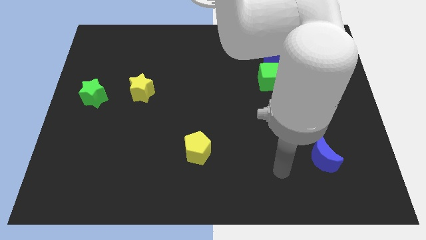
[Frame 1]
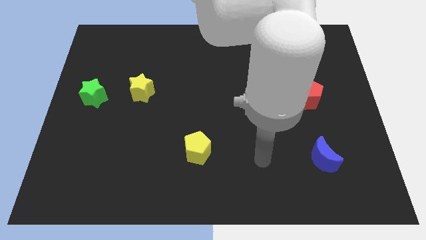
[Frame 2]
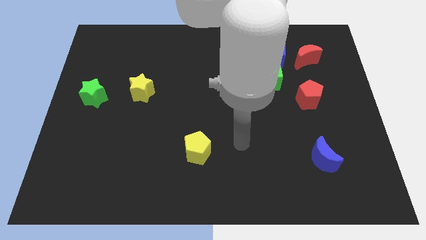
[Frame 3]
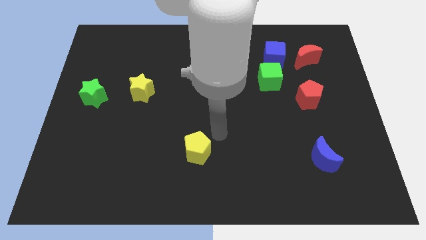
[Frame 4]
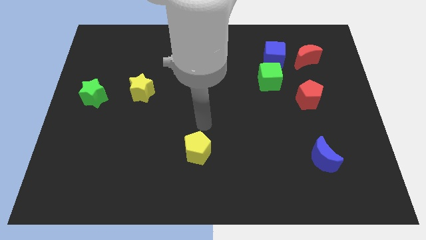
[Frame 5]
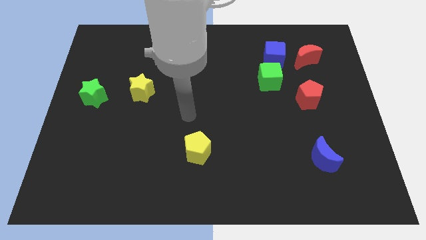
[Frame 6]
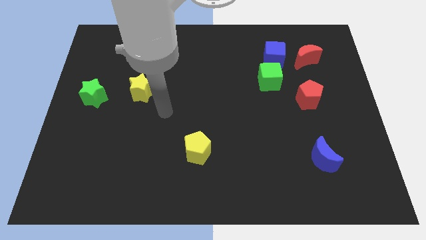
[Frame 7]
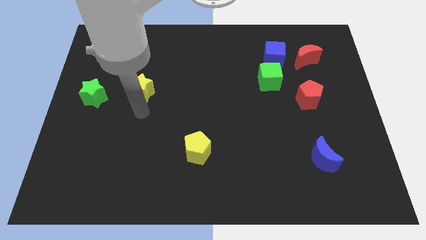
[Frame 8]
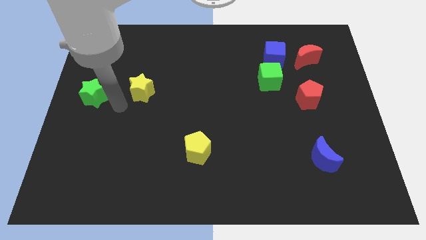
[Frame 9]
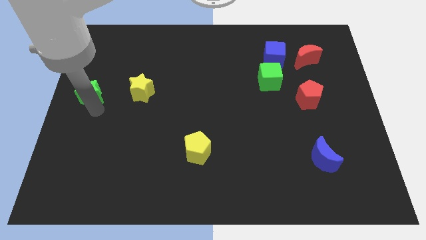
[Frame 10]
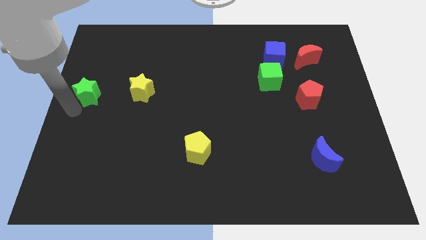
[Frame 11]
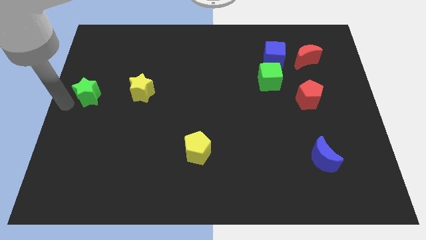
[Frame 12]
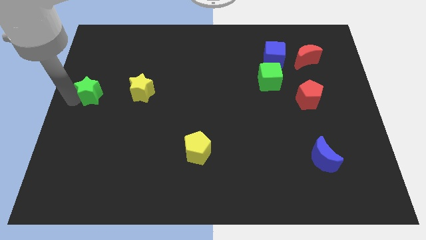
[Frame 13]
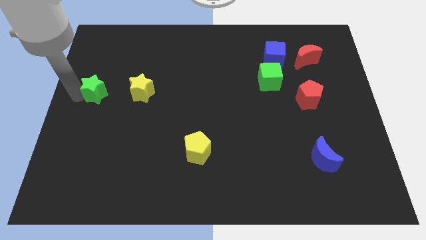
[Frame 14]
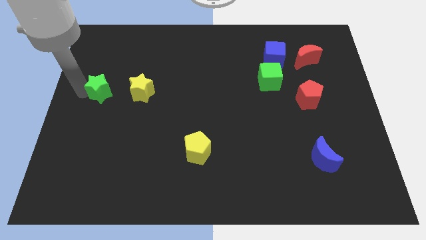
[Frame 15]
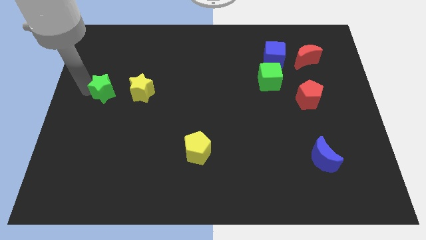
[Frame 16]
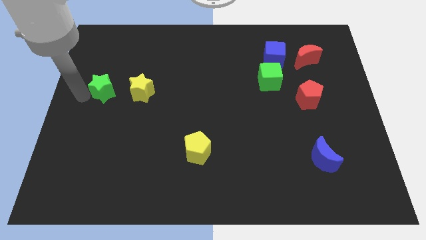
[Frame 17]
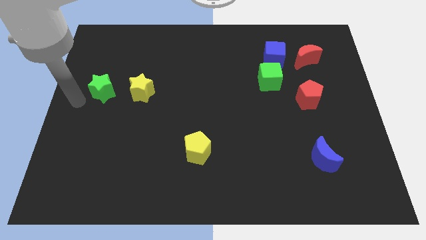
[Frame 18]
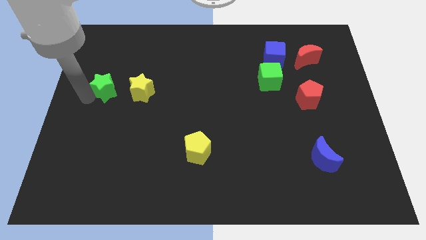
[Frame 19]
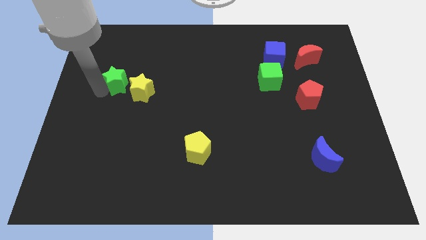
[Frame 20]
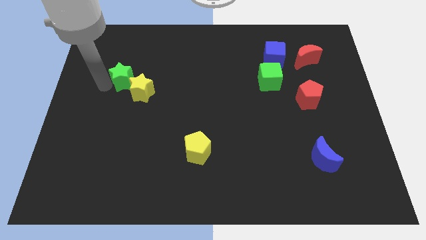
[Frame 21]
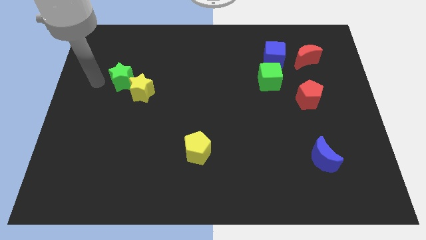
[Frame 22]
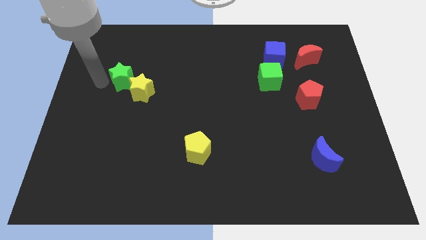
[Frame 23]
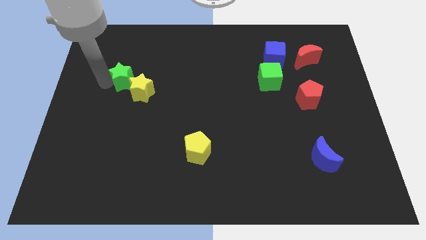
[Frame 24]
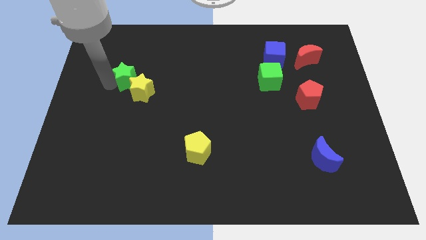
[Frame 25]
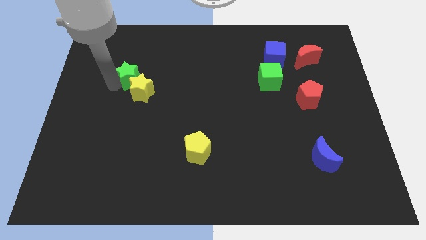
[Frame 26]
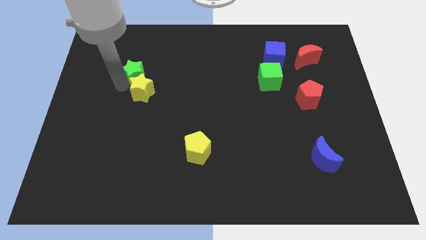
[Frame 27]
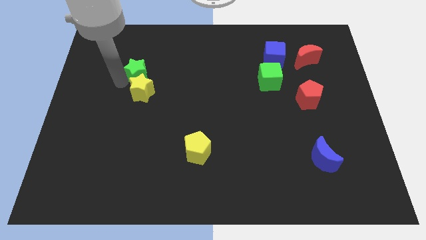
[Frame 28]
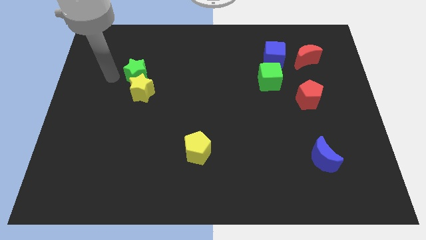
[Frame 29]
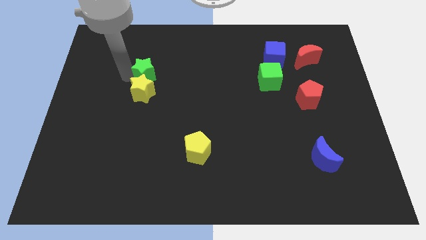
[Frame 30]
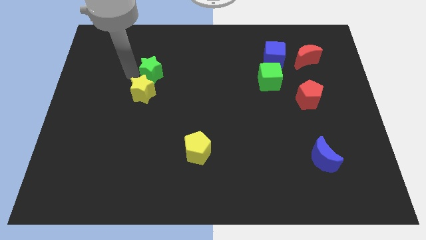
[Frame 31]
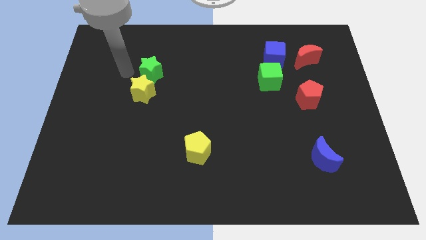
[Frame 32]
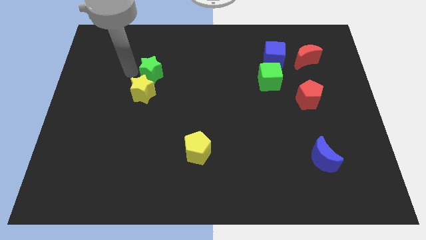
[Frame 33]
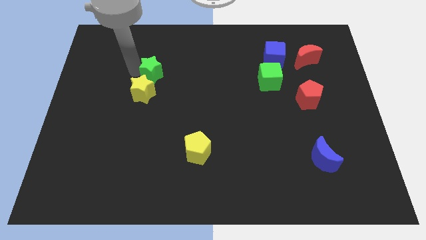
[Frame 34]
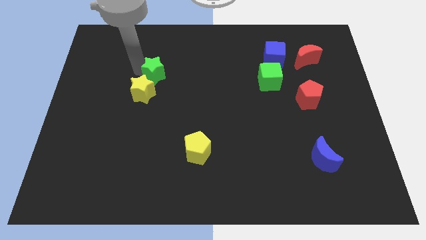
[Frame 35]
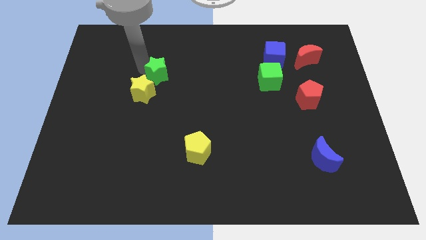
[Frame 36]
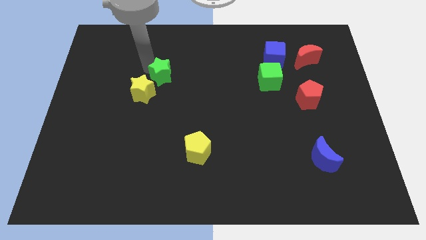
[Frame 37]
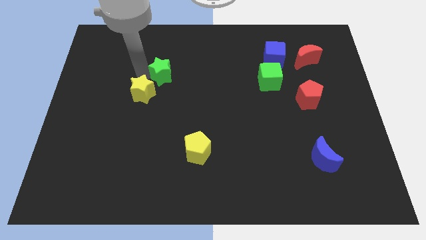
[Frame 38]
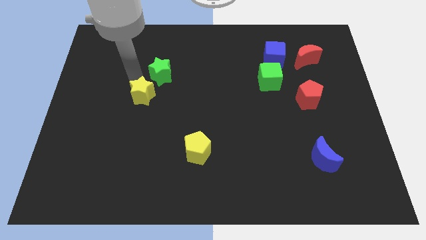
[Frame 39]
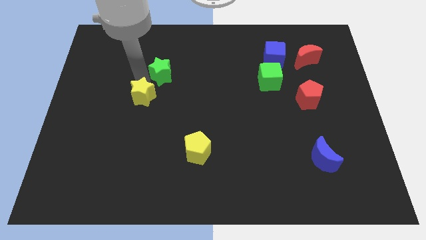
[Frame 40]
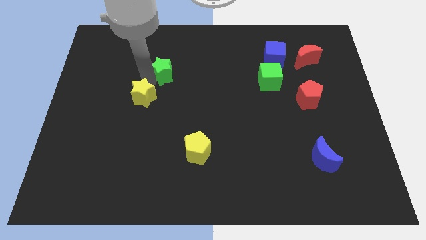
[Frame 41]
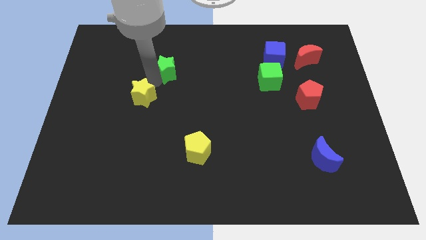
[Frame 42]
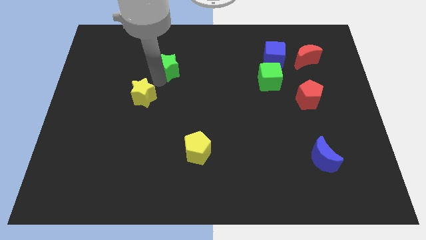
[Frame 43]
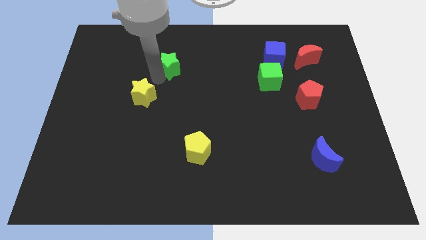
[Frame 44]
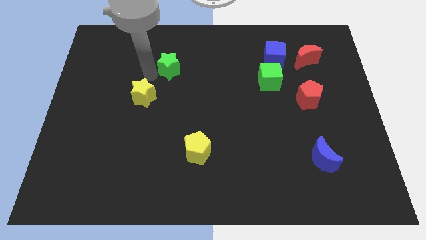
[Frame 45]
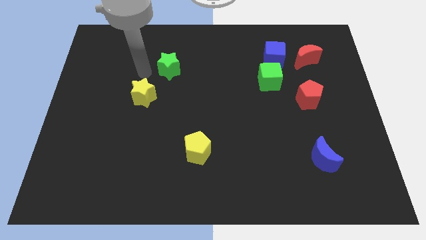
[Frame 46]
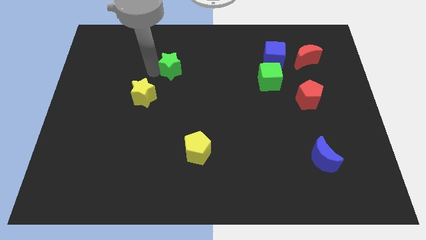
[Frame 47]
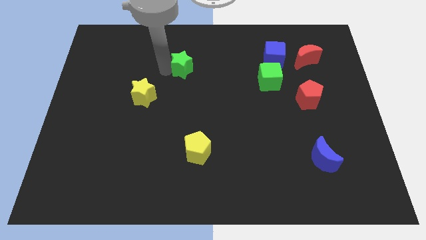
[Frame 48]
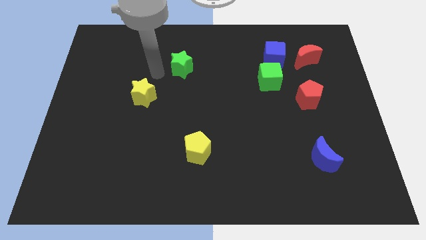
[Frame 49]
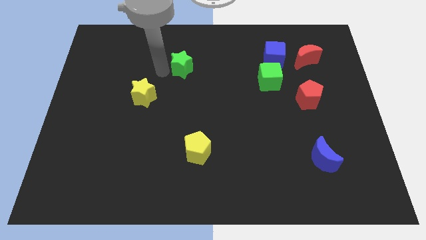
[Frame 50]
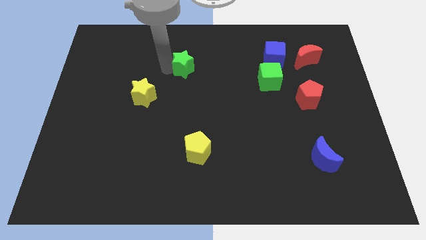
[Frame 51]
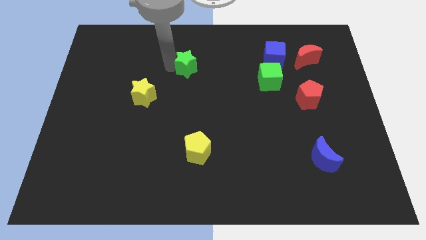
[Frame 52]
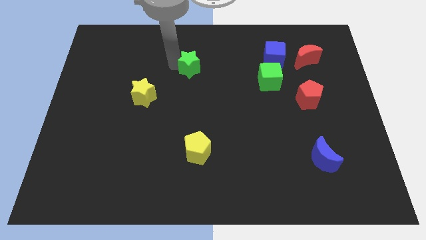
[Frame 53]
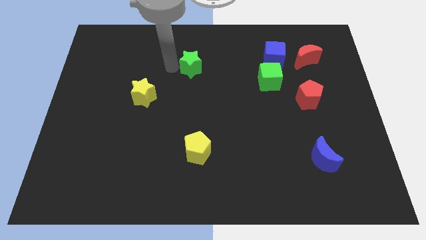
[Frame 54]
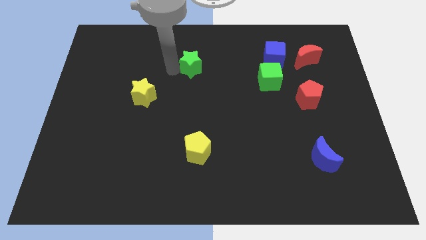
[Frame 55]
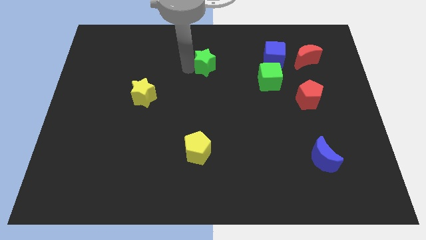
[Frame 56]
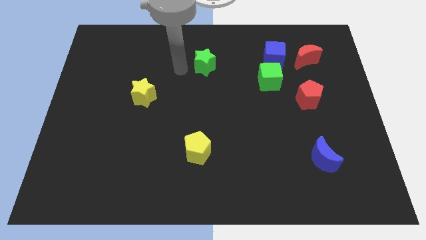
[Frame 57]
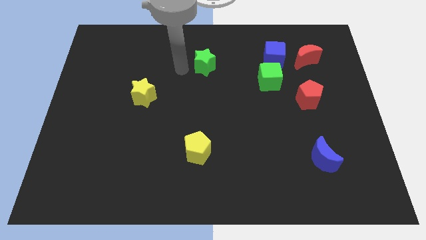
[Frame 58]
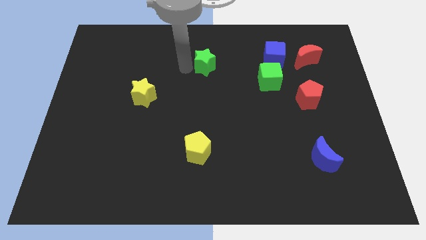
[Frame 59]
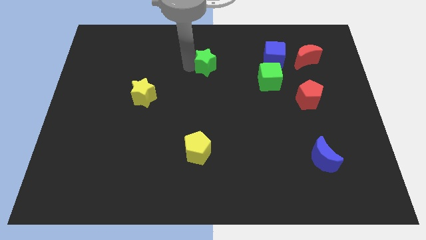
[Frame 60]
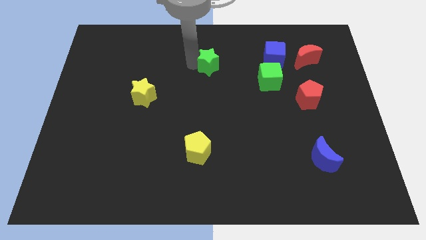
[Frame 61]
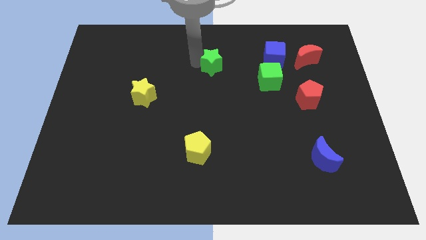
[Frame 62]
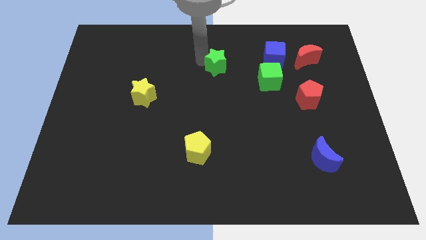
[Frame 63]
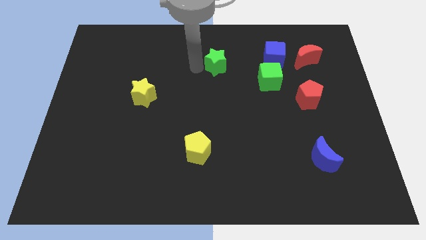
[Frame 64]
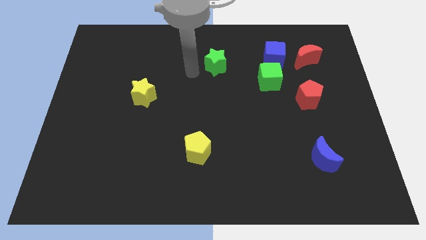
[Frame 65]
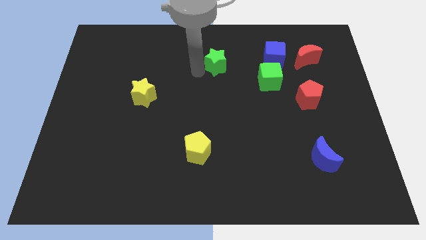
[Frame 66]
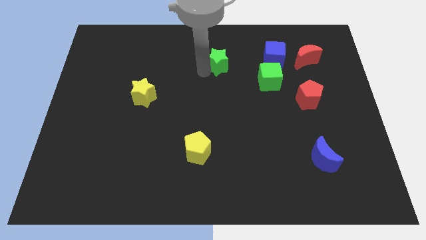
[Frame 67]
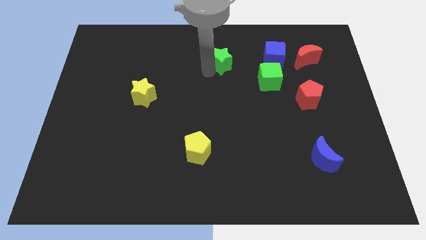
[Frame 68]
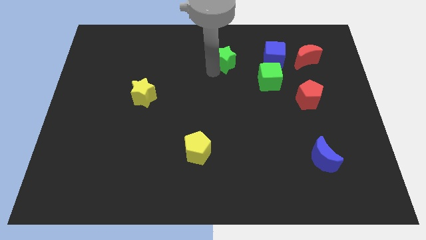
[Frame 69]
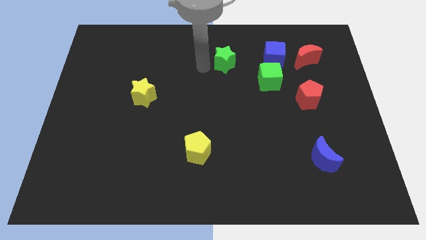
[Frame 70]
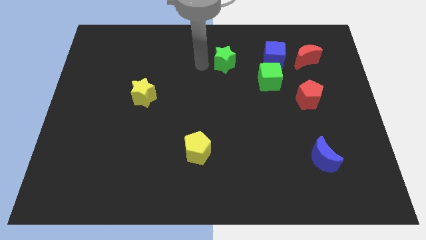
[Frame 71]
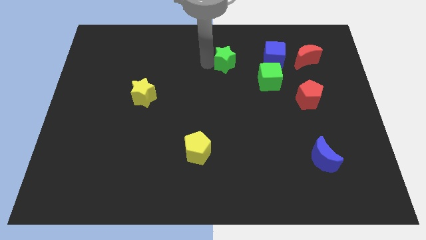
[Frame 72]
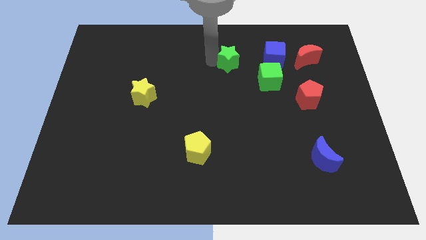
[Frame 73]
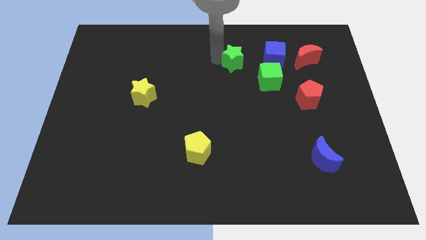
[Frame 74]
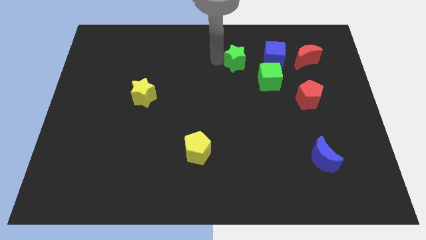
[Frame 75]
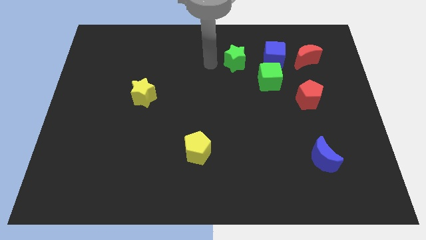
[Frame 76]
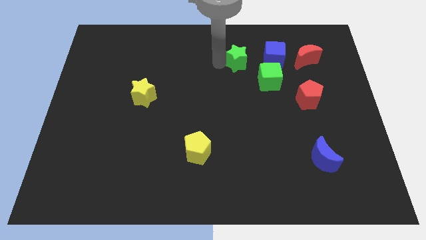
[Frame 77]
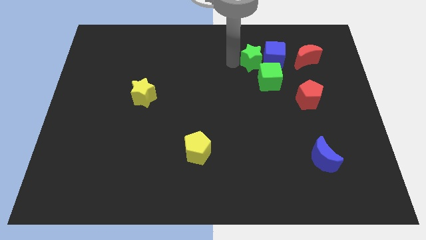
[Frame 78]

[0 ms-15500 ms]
push the green star towards the blue cube
